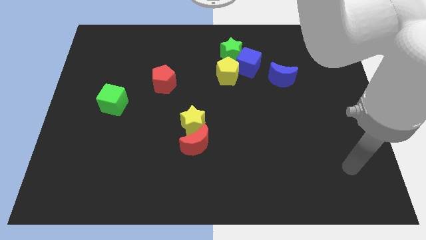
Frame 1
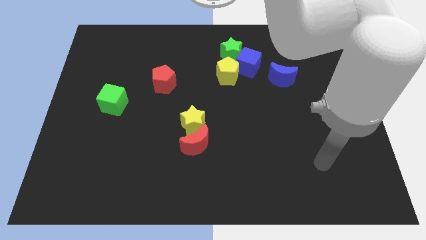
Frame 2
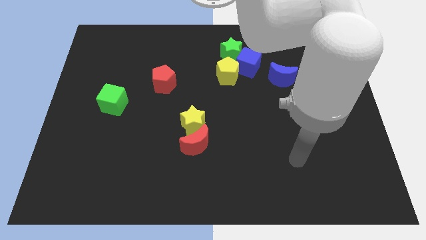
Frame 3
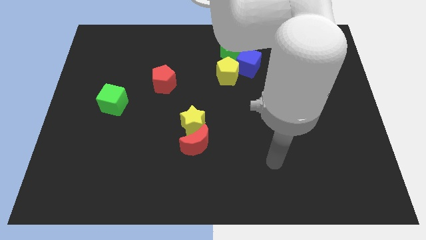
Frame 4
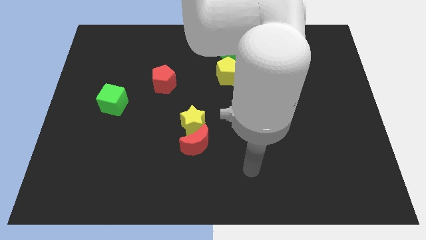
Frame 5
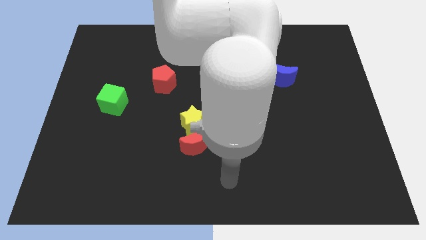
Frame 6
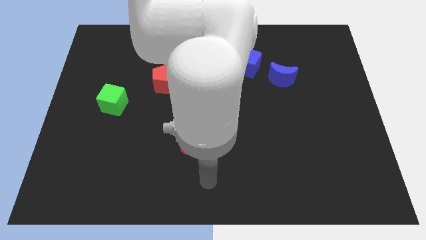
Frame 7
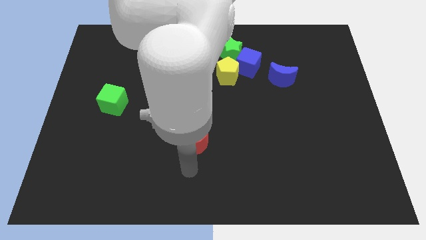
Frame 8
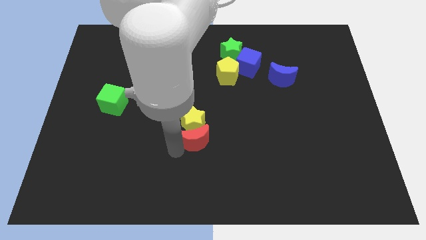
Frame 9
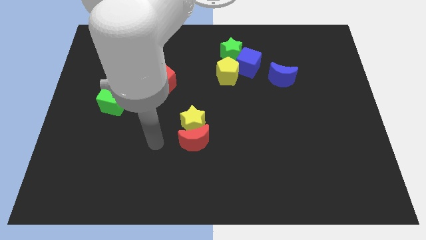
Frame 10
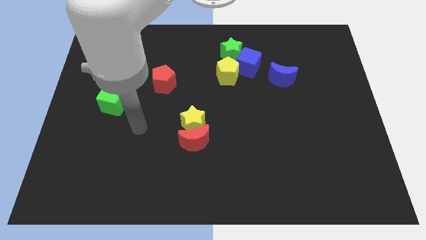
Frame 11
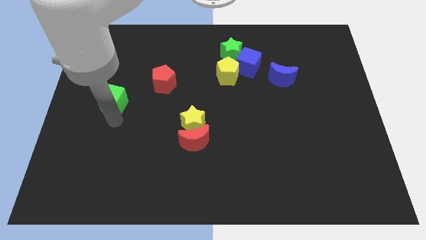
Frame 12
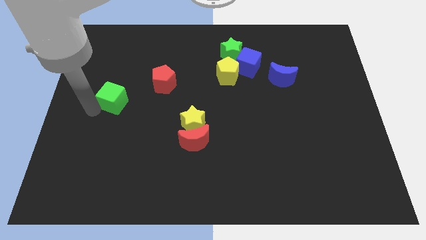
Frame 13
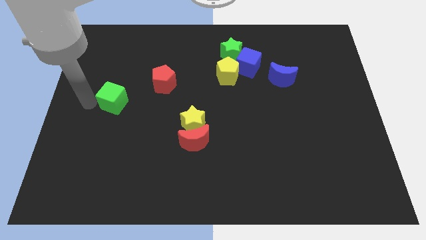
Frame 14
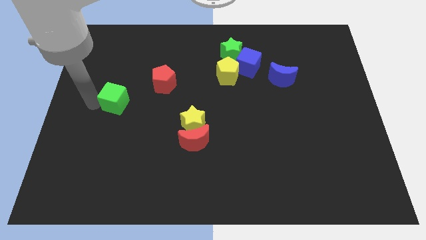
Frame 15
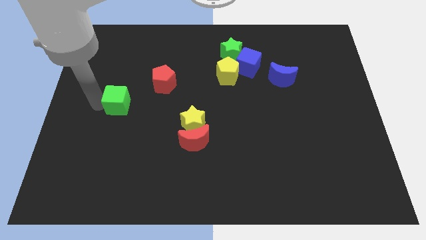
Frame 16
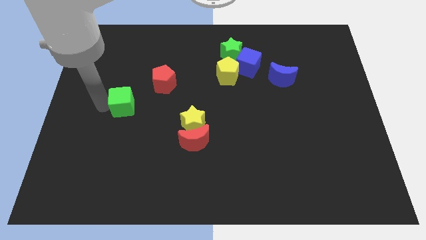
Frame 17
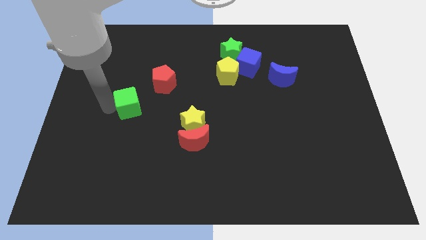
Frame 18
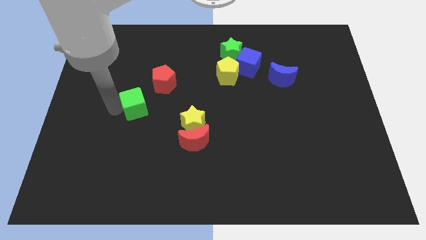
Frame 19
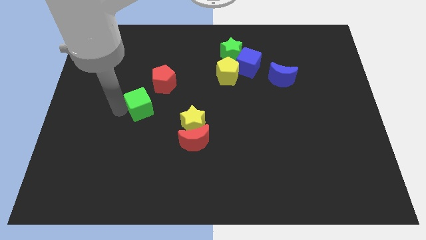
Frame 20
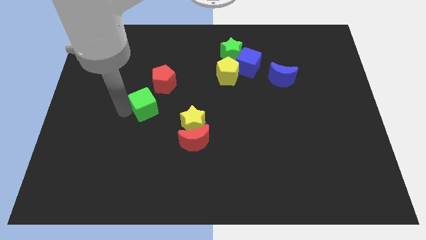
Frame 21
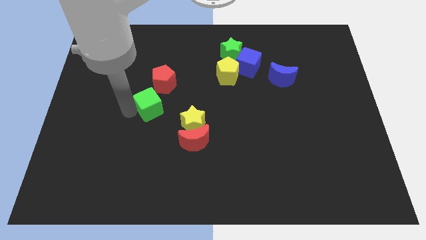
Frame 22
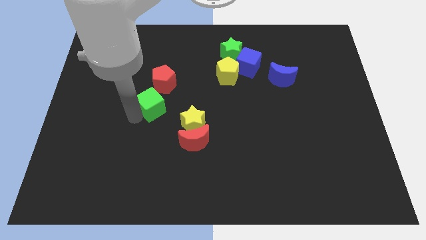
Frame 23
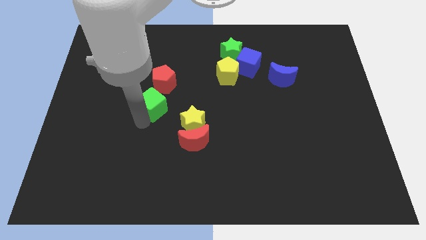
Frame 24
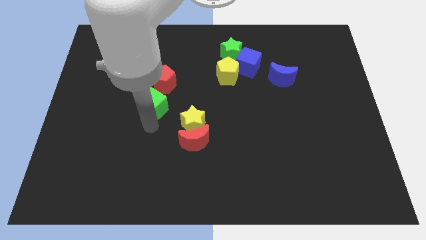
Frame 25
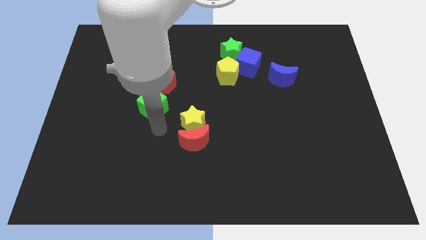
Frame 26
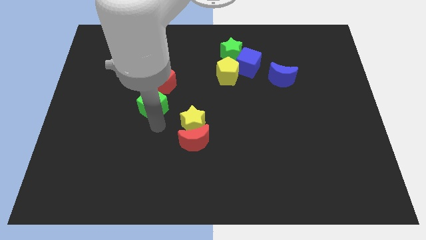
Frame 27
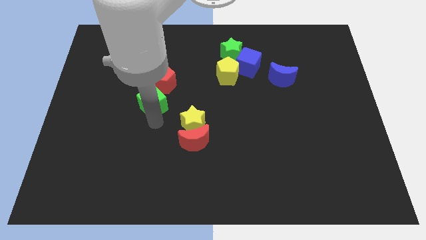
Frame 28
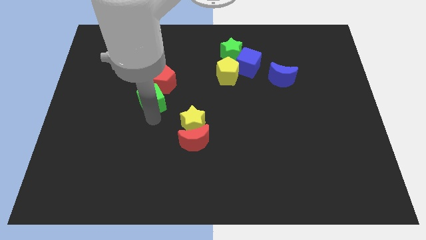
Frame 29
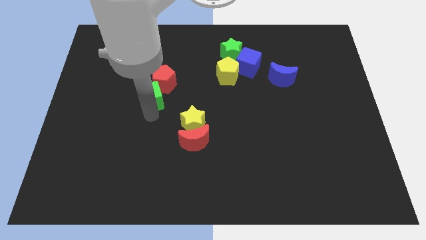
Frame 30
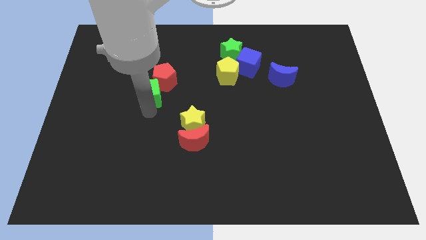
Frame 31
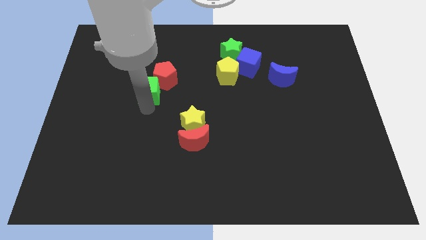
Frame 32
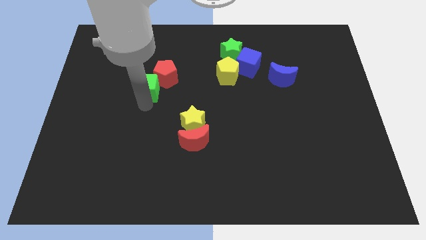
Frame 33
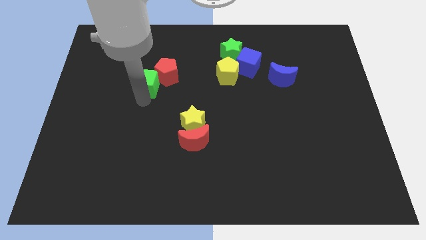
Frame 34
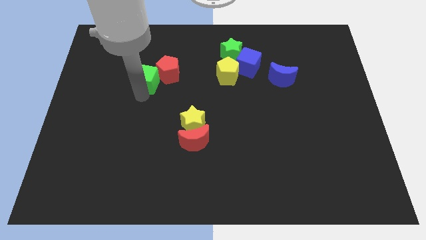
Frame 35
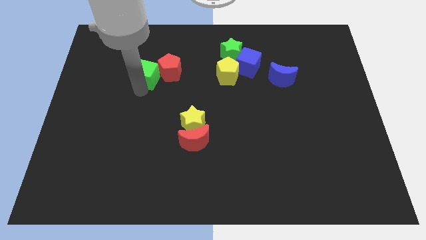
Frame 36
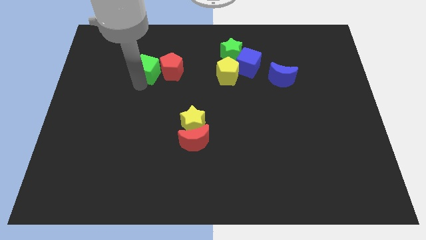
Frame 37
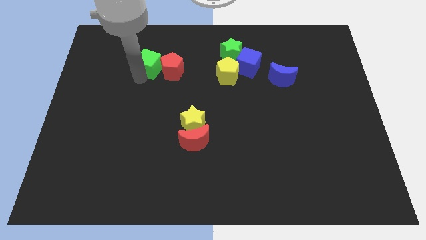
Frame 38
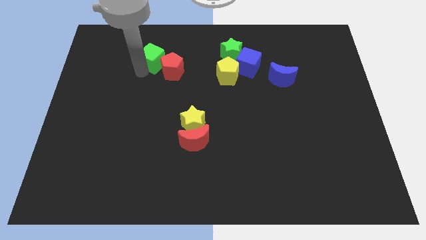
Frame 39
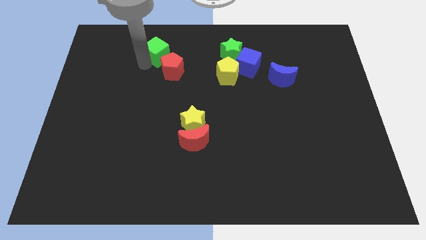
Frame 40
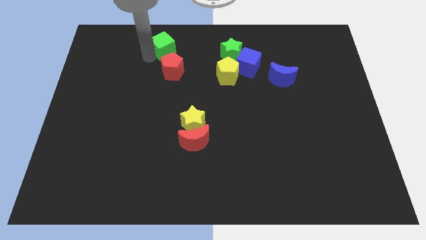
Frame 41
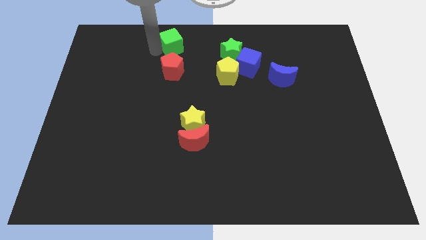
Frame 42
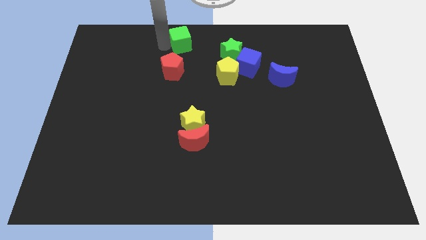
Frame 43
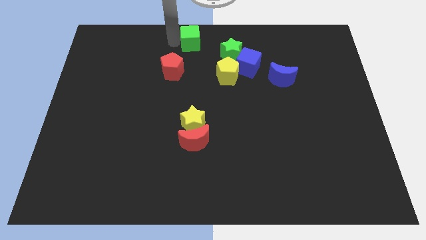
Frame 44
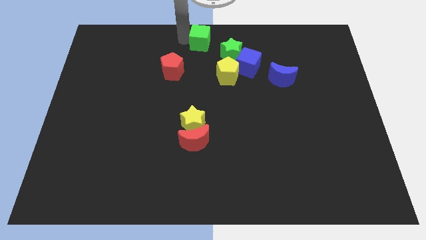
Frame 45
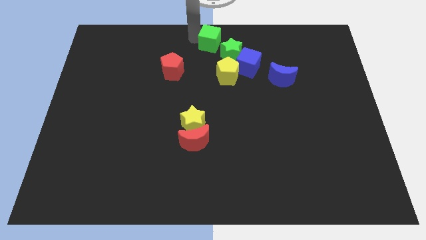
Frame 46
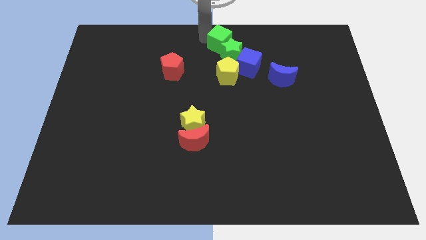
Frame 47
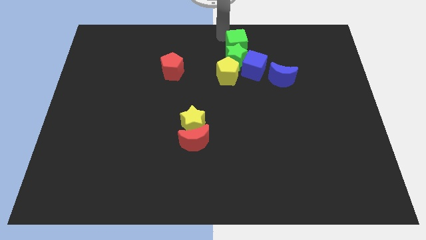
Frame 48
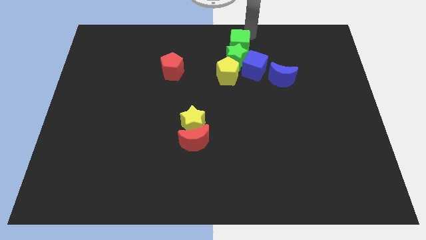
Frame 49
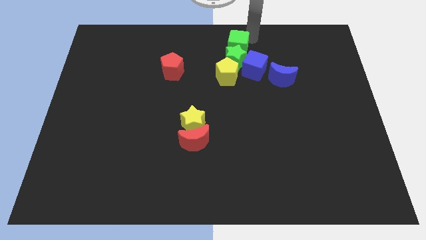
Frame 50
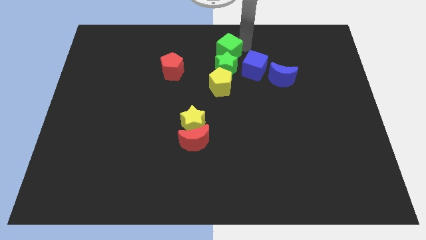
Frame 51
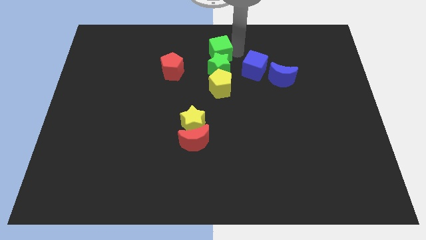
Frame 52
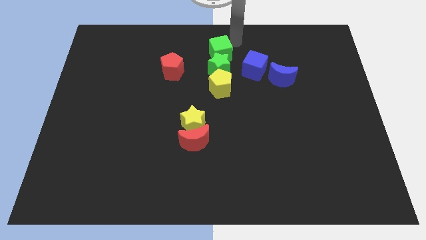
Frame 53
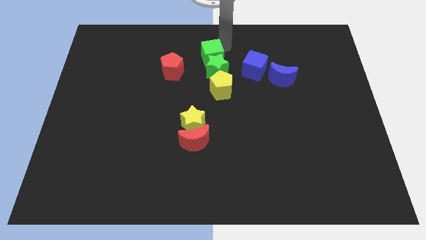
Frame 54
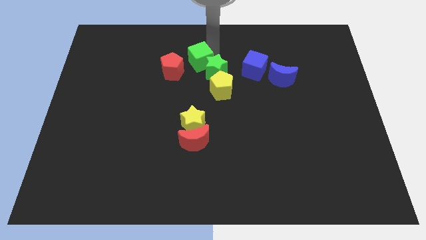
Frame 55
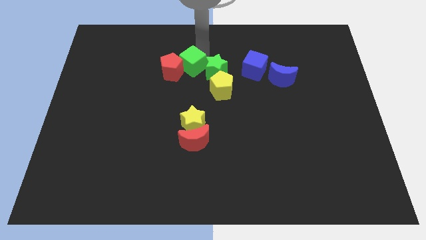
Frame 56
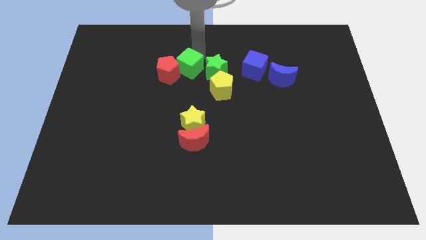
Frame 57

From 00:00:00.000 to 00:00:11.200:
slide the green cube to the middle
